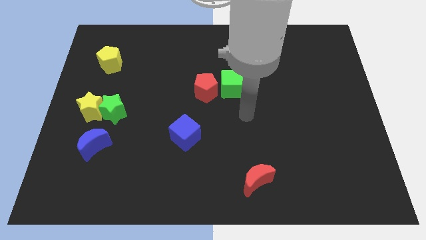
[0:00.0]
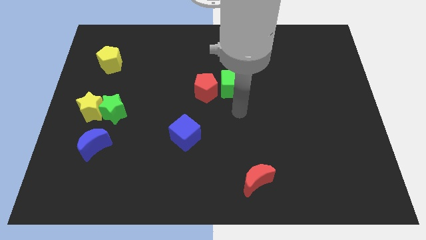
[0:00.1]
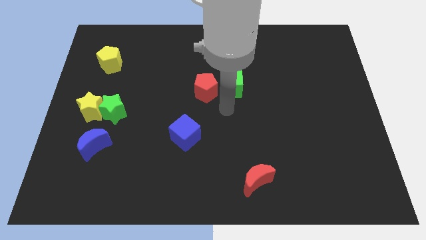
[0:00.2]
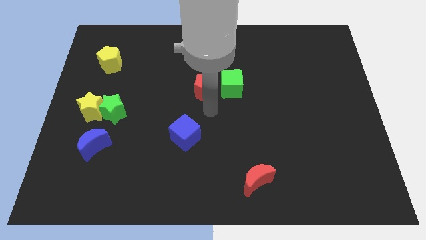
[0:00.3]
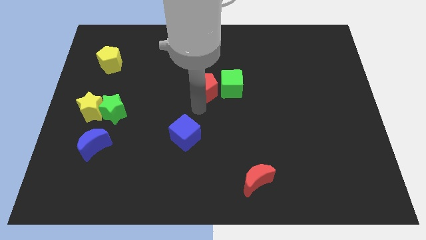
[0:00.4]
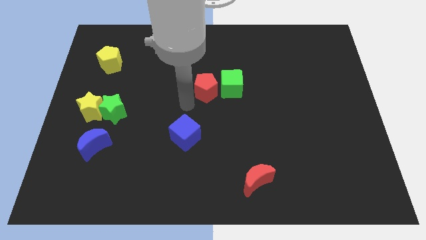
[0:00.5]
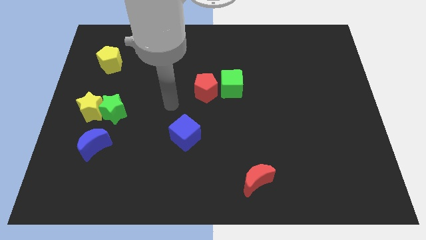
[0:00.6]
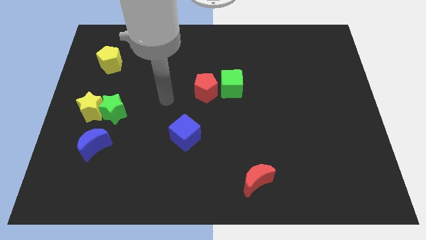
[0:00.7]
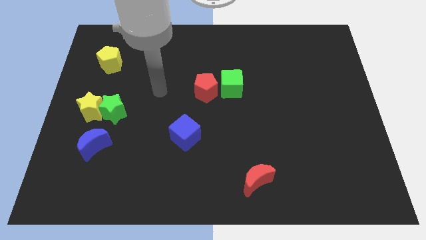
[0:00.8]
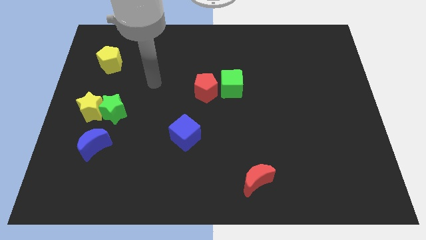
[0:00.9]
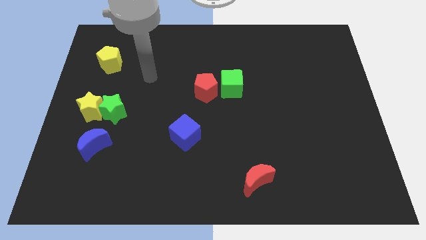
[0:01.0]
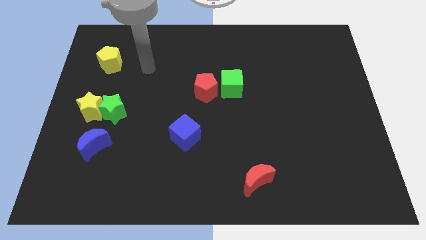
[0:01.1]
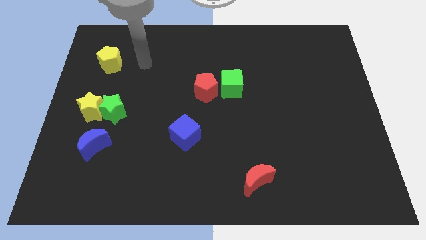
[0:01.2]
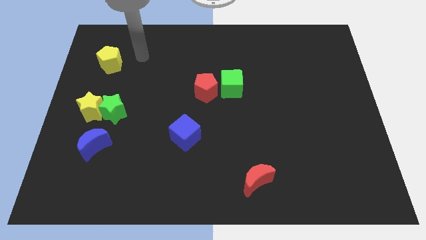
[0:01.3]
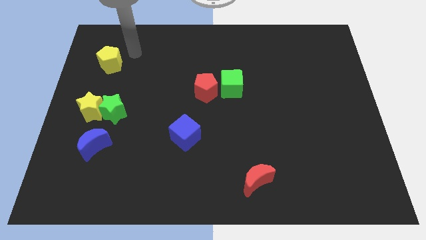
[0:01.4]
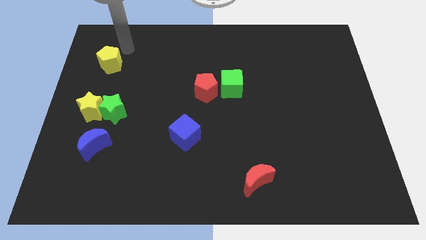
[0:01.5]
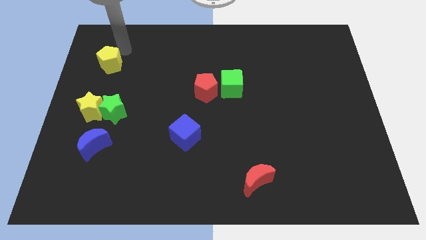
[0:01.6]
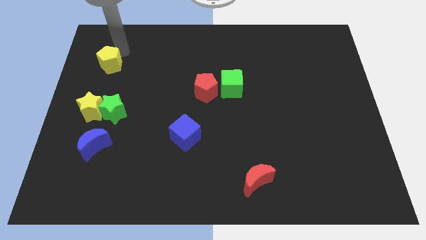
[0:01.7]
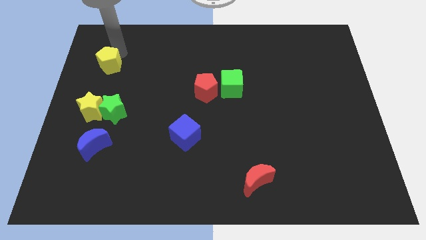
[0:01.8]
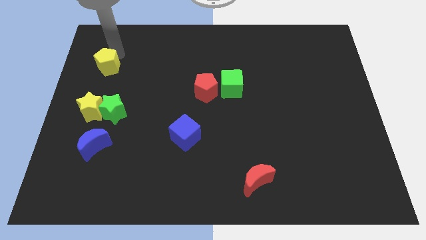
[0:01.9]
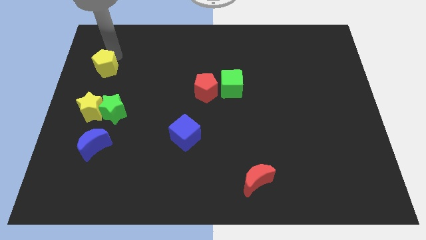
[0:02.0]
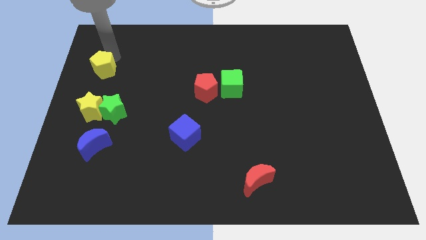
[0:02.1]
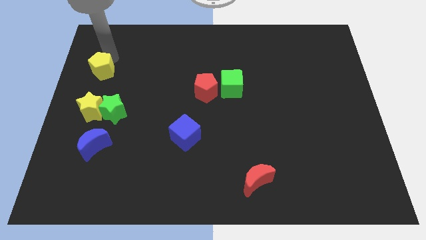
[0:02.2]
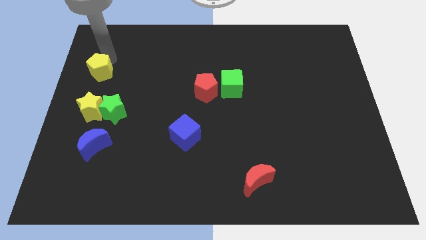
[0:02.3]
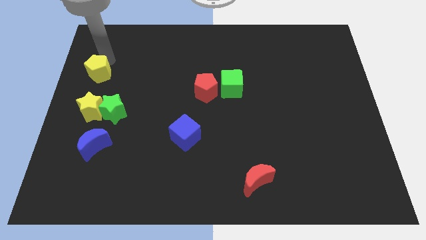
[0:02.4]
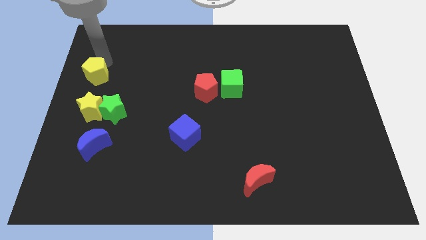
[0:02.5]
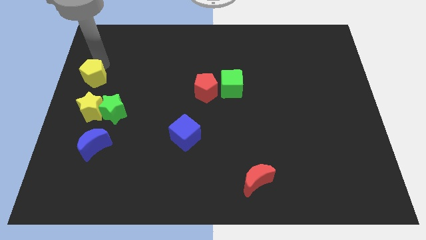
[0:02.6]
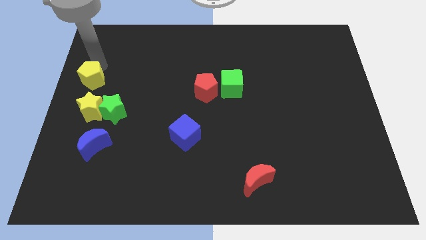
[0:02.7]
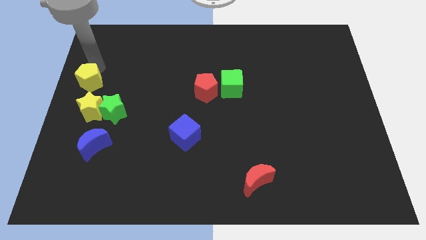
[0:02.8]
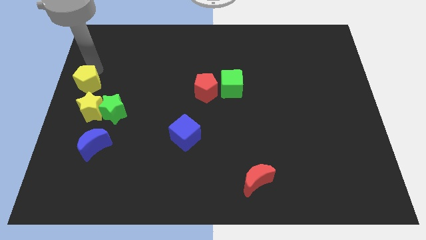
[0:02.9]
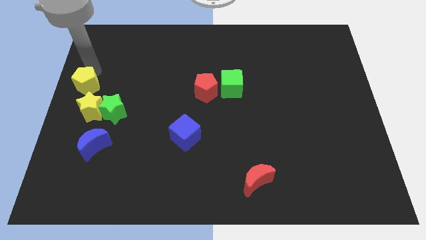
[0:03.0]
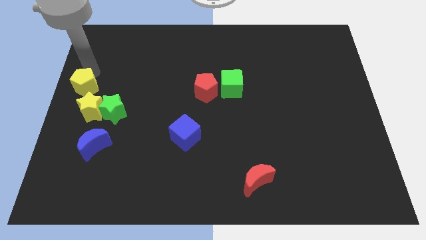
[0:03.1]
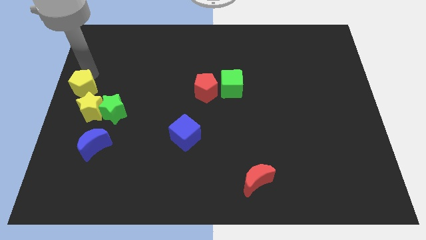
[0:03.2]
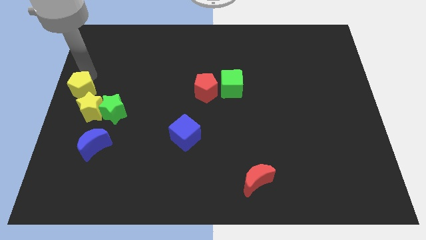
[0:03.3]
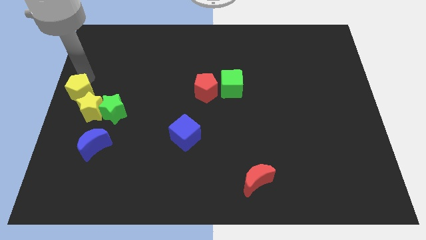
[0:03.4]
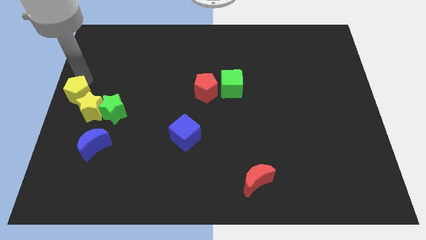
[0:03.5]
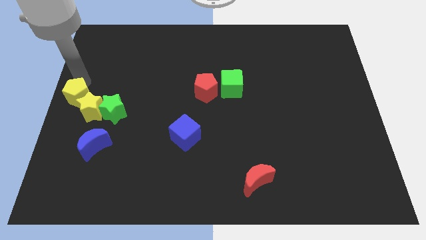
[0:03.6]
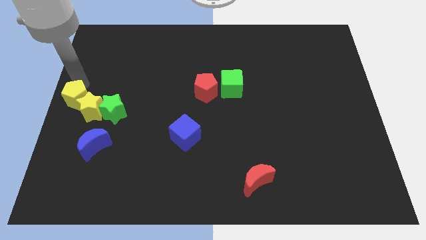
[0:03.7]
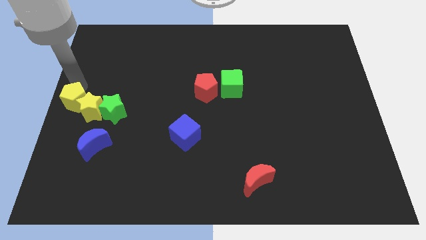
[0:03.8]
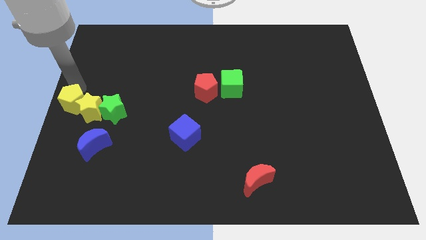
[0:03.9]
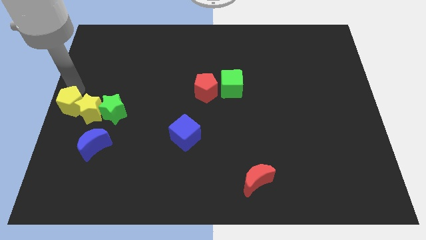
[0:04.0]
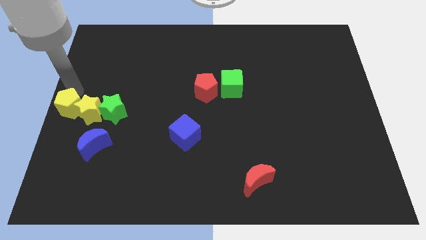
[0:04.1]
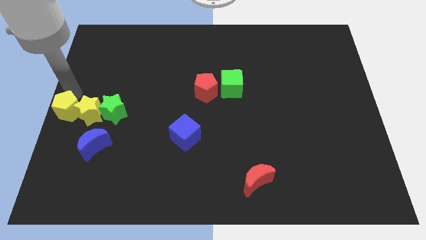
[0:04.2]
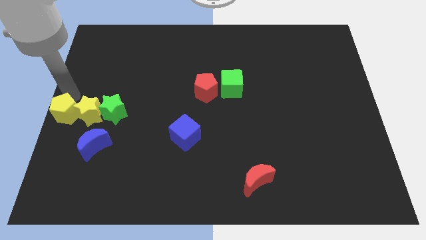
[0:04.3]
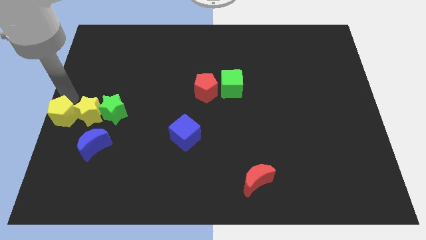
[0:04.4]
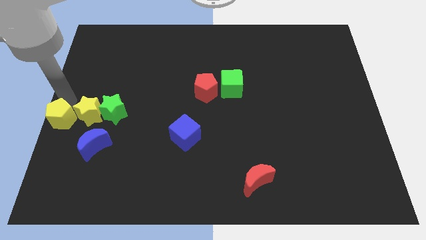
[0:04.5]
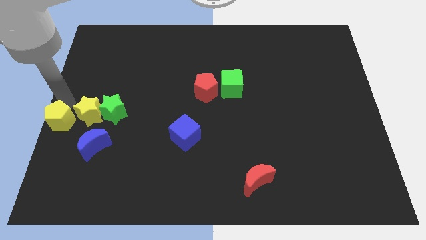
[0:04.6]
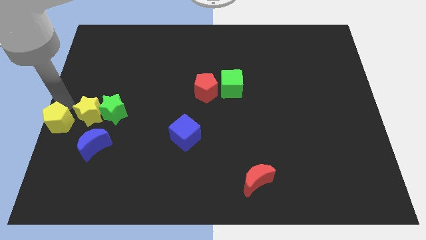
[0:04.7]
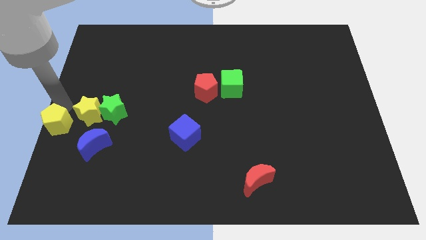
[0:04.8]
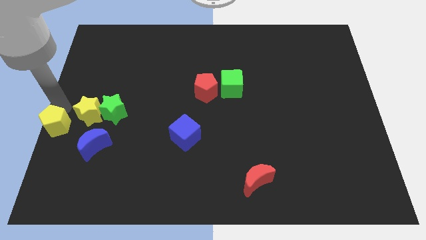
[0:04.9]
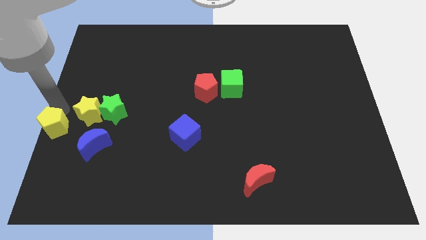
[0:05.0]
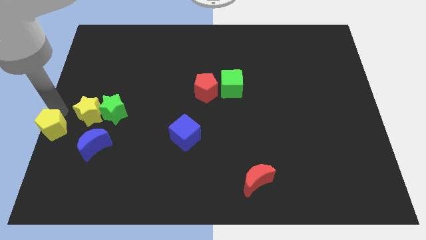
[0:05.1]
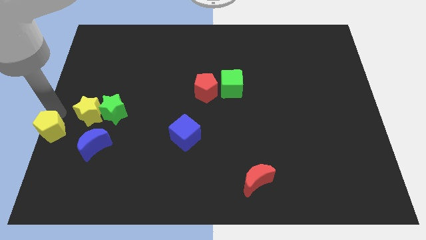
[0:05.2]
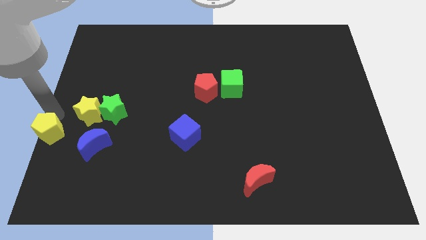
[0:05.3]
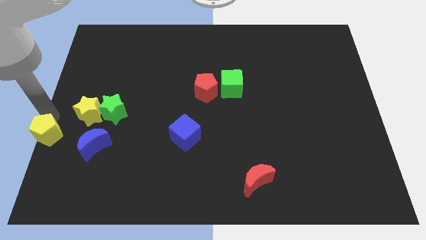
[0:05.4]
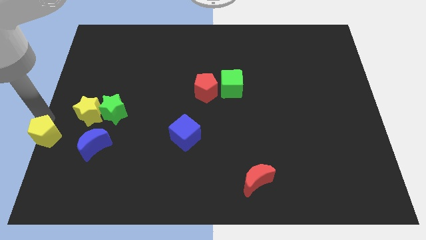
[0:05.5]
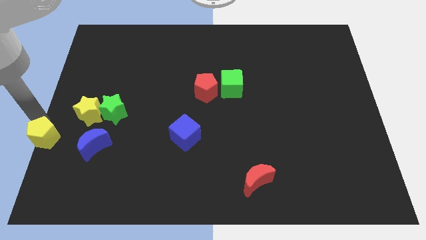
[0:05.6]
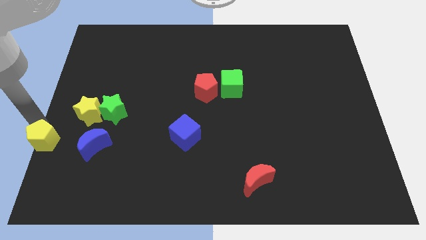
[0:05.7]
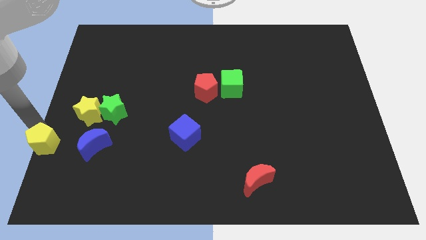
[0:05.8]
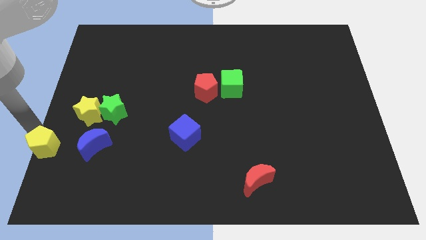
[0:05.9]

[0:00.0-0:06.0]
slide the yellow pentagon down

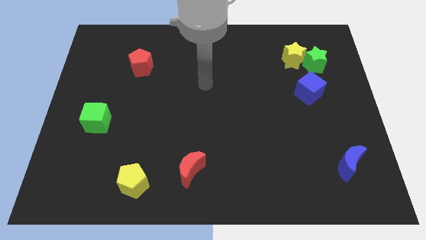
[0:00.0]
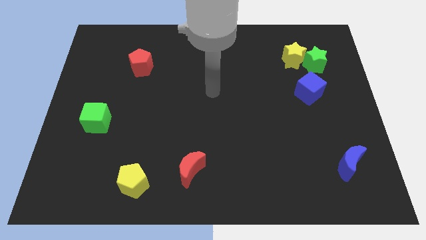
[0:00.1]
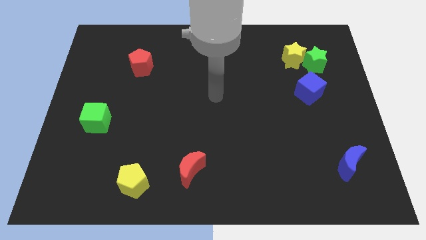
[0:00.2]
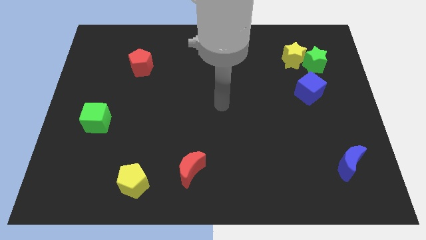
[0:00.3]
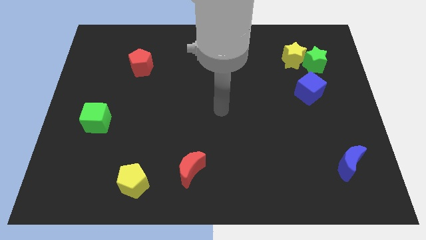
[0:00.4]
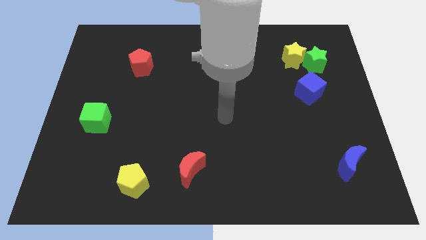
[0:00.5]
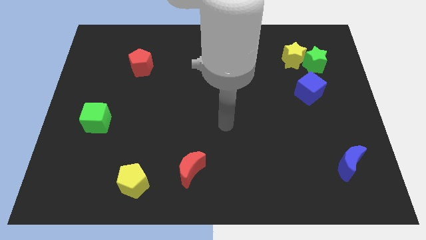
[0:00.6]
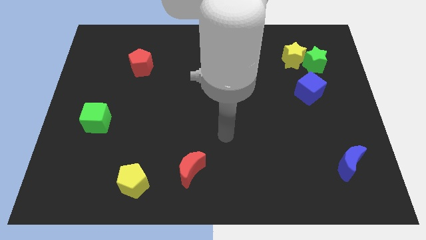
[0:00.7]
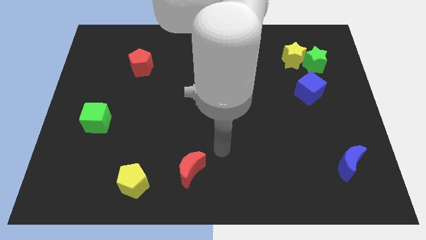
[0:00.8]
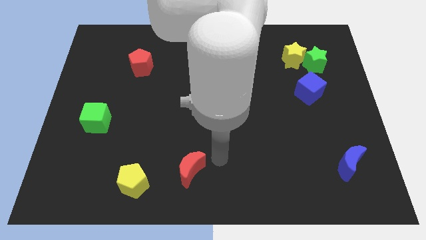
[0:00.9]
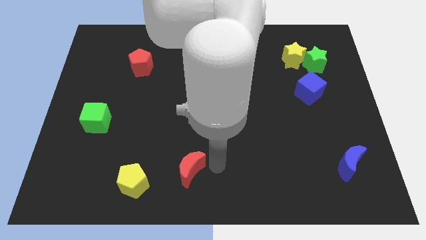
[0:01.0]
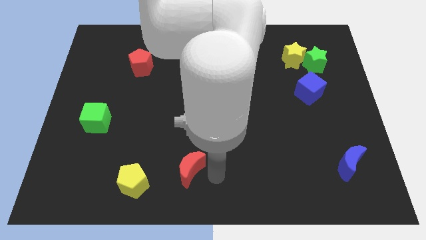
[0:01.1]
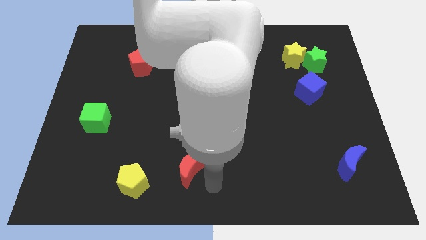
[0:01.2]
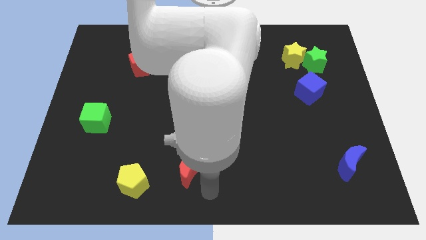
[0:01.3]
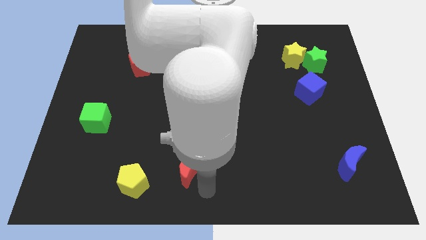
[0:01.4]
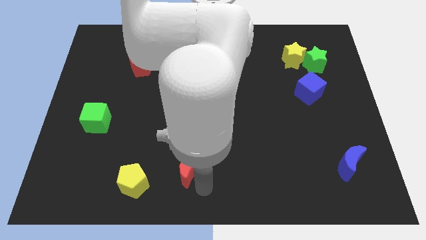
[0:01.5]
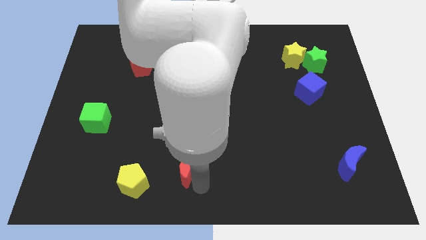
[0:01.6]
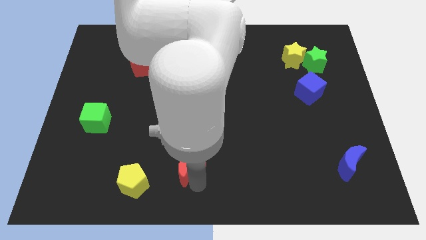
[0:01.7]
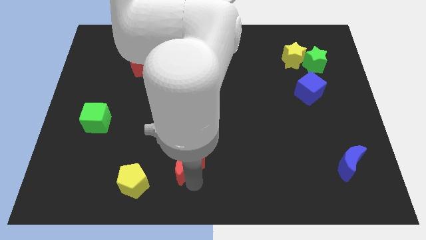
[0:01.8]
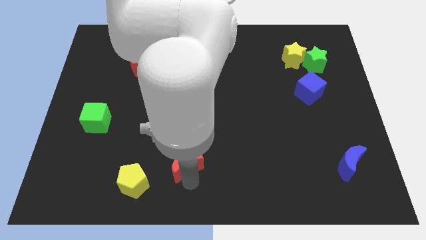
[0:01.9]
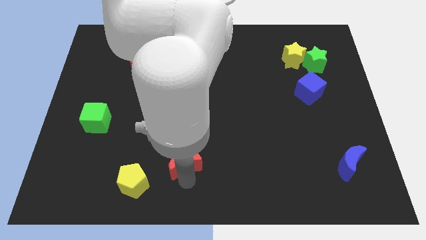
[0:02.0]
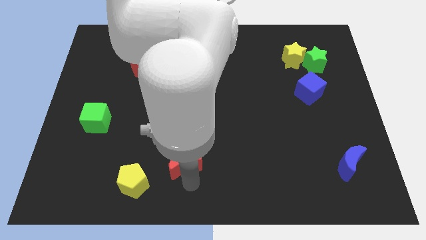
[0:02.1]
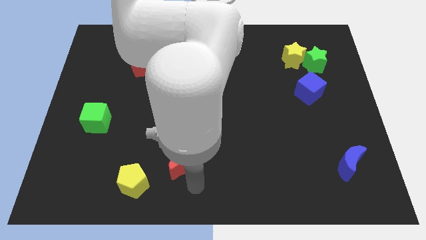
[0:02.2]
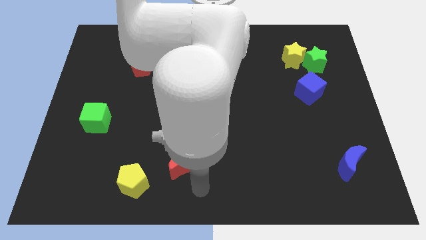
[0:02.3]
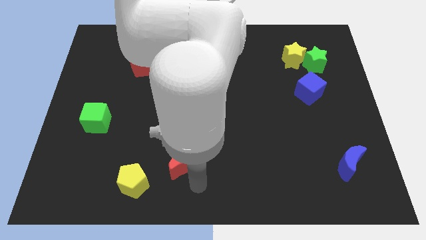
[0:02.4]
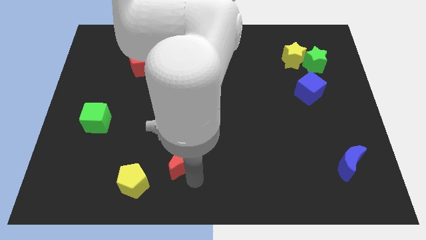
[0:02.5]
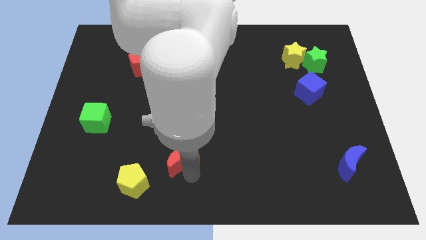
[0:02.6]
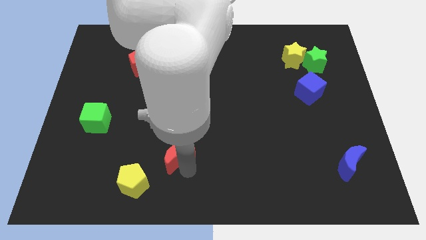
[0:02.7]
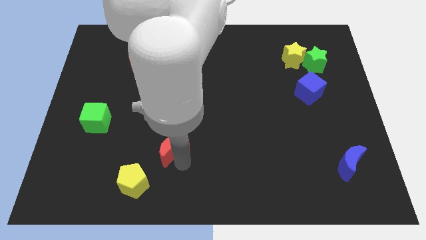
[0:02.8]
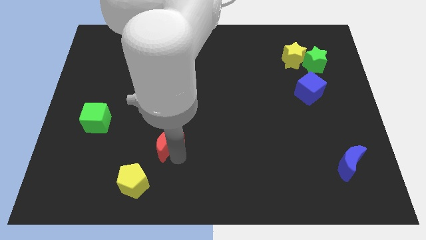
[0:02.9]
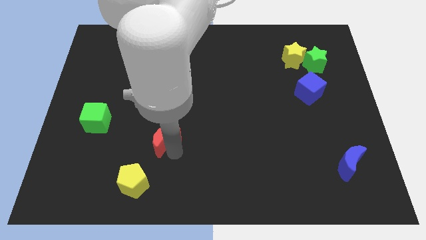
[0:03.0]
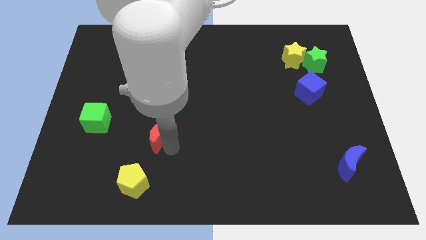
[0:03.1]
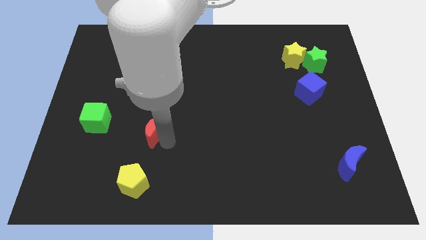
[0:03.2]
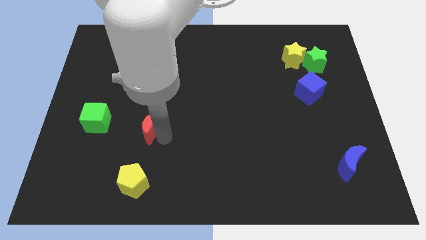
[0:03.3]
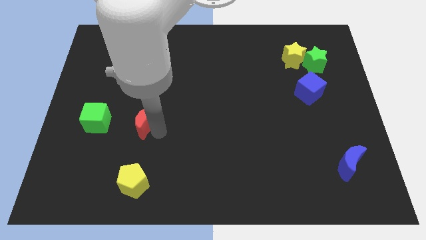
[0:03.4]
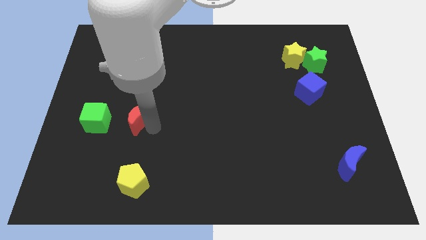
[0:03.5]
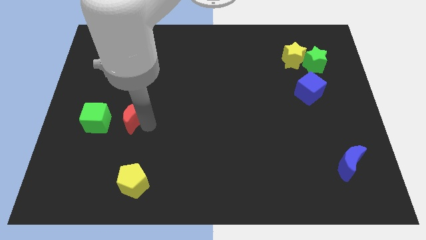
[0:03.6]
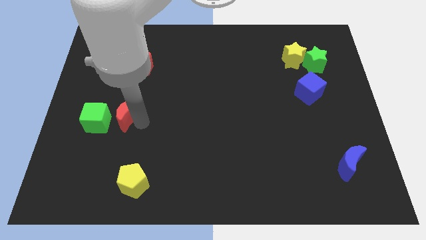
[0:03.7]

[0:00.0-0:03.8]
slide the red moon upwards and then left
